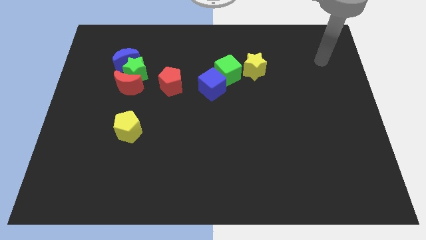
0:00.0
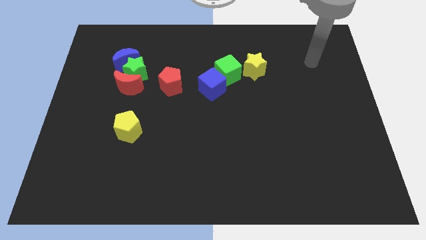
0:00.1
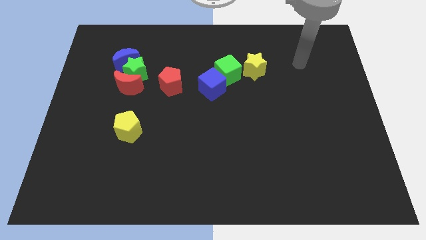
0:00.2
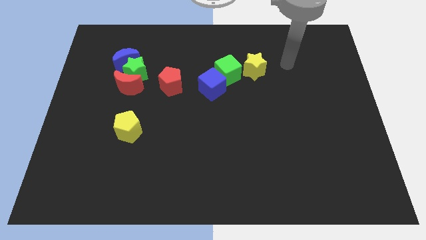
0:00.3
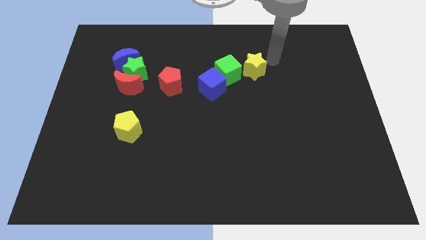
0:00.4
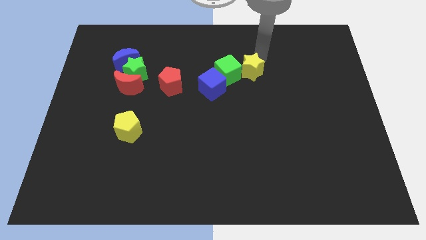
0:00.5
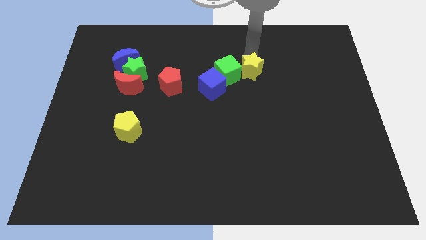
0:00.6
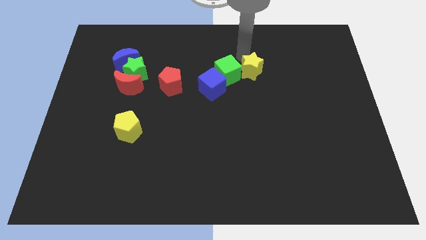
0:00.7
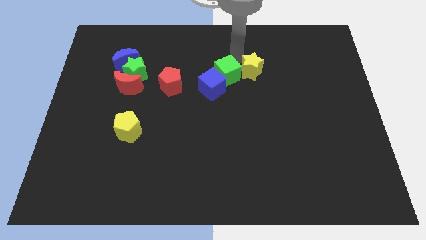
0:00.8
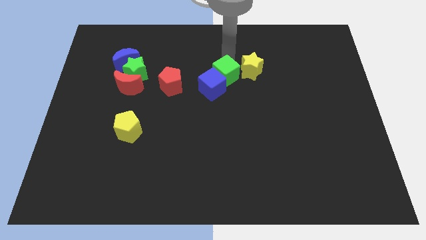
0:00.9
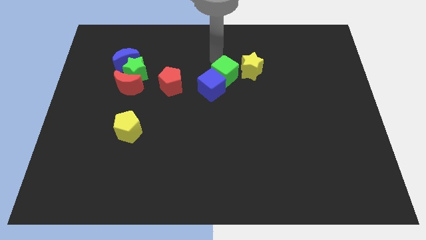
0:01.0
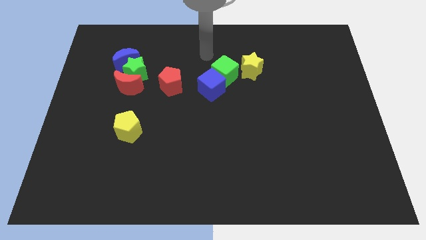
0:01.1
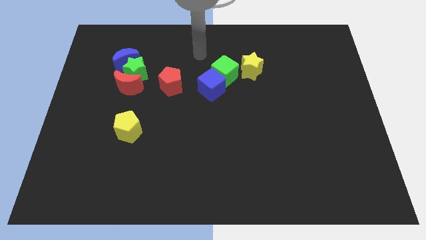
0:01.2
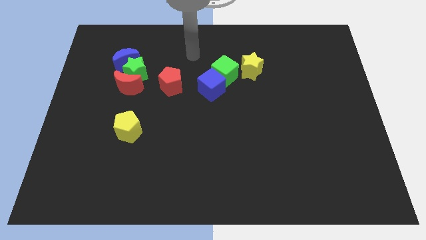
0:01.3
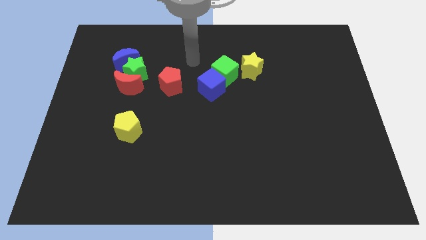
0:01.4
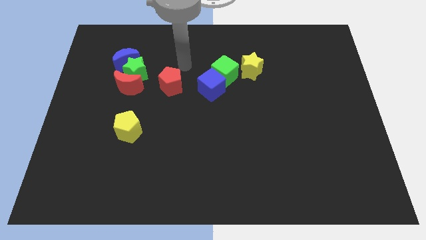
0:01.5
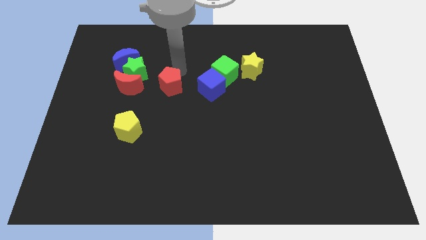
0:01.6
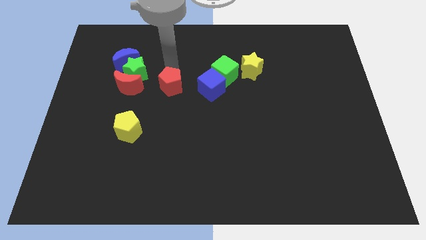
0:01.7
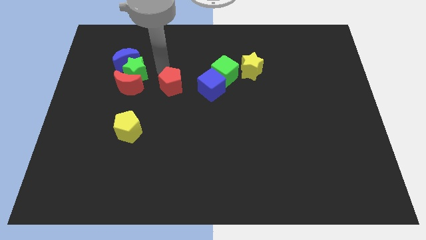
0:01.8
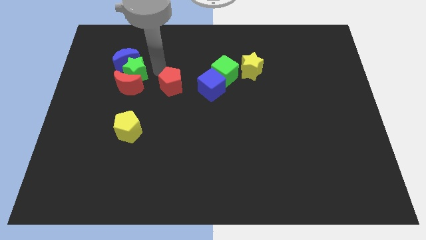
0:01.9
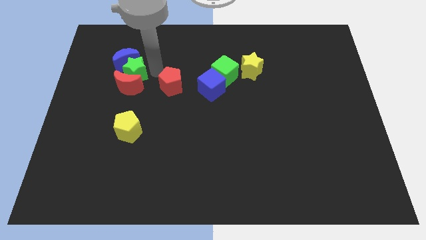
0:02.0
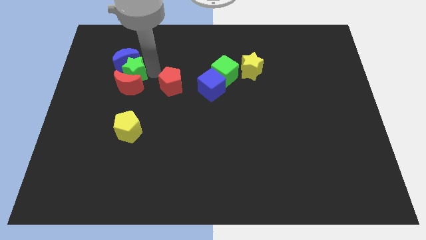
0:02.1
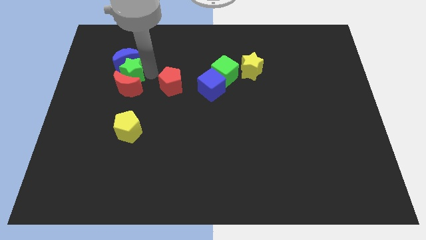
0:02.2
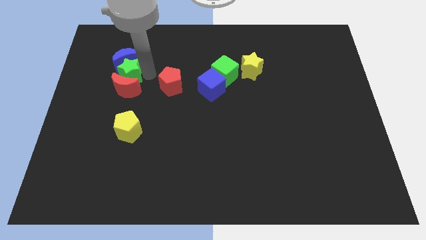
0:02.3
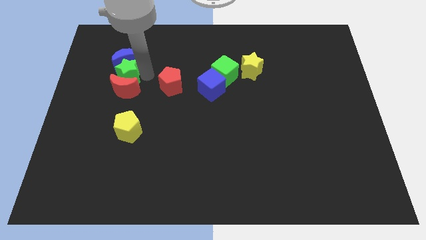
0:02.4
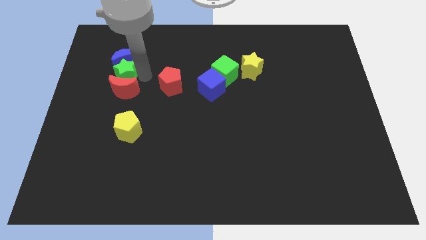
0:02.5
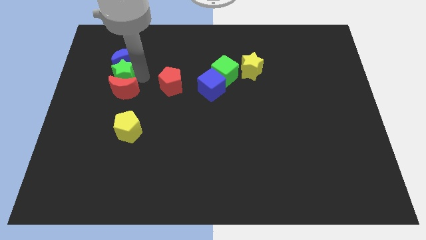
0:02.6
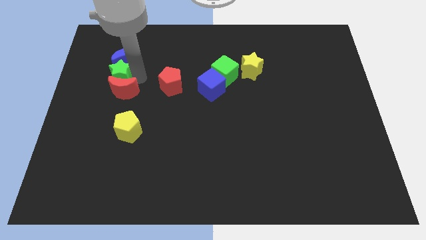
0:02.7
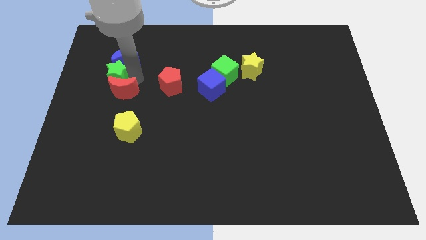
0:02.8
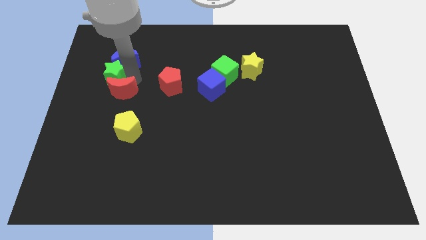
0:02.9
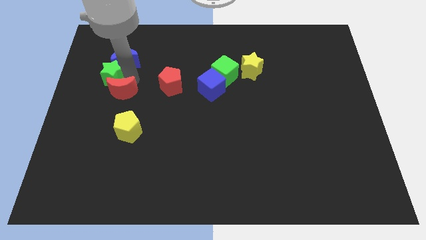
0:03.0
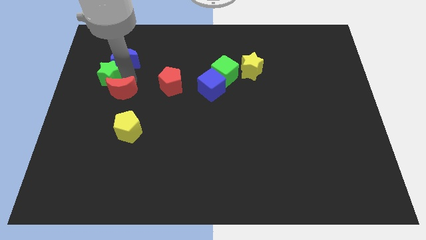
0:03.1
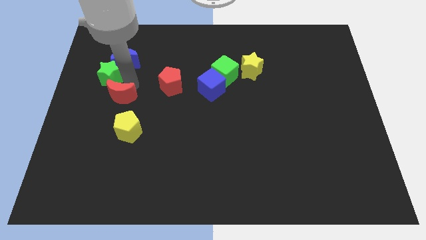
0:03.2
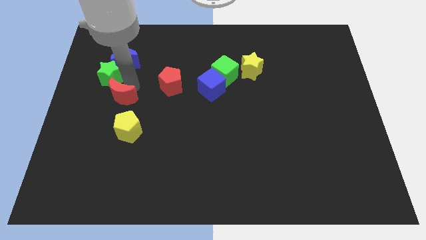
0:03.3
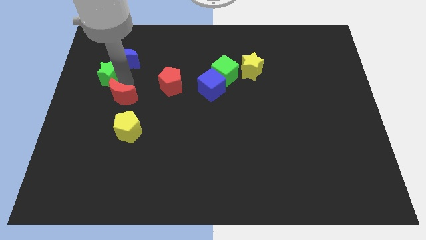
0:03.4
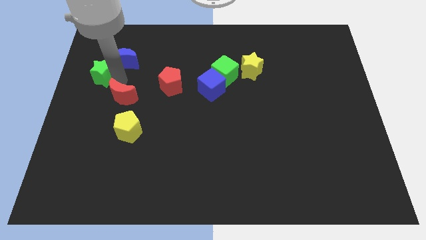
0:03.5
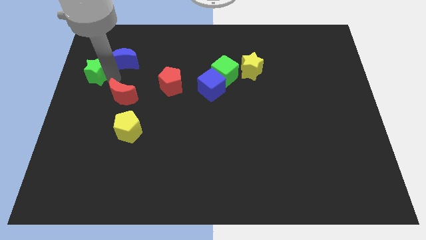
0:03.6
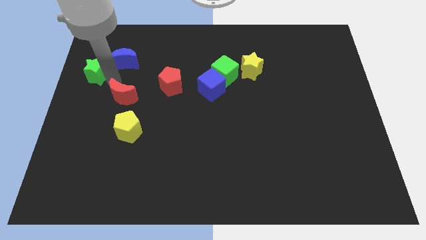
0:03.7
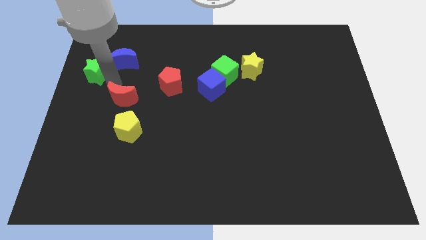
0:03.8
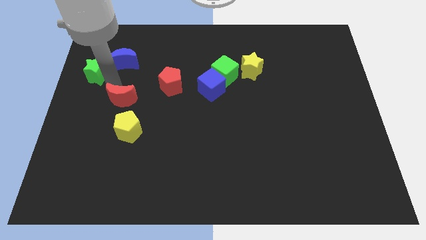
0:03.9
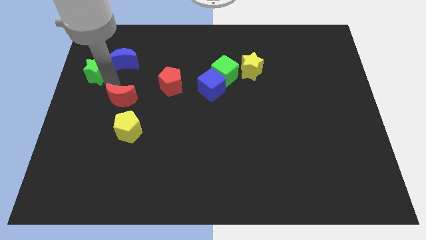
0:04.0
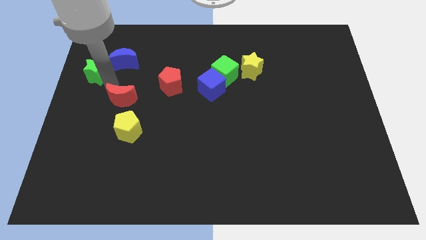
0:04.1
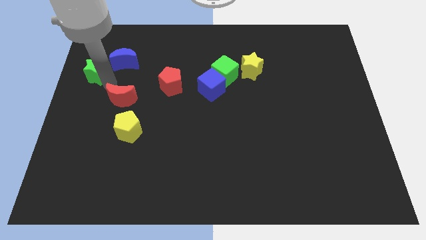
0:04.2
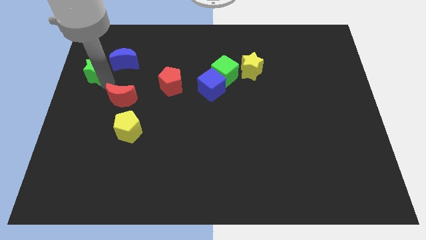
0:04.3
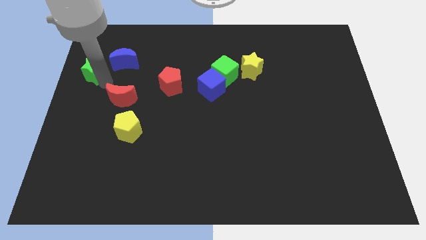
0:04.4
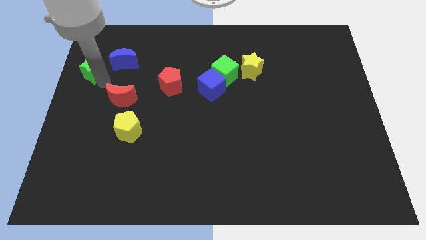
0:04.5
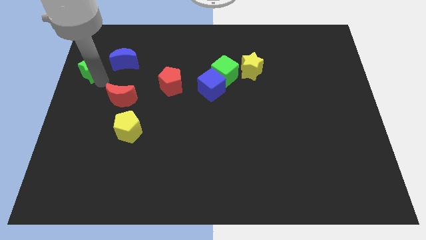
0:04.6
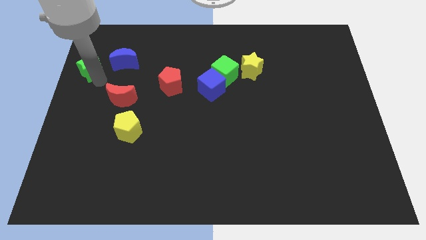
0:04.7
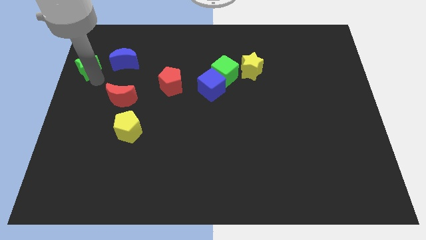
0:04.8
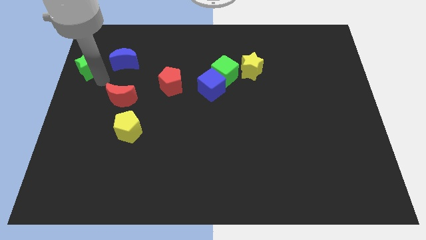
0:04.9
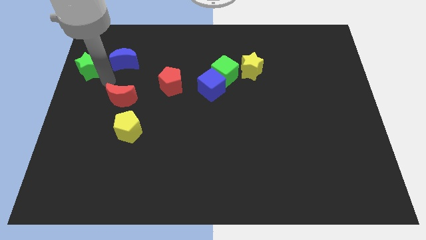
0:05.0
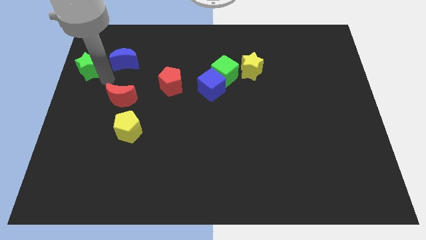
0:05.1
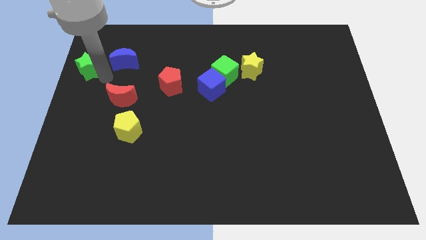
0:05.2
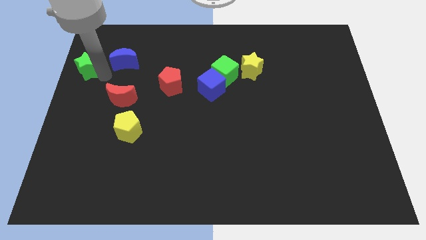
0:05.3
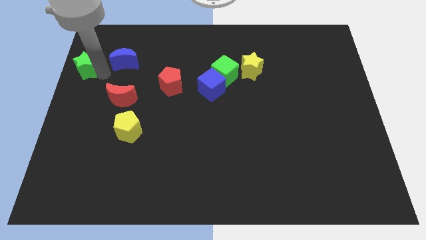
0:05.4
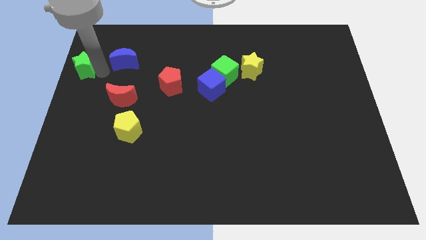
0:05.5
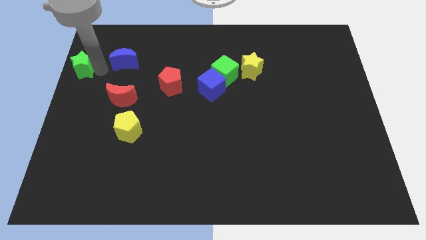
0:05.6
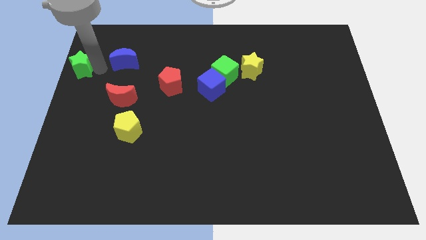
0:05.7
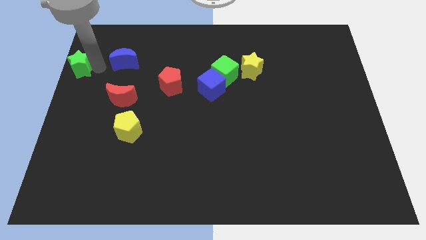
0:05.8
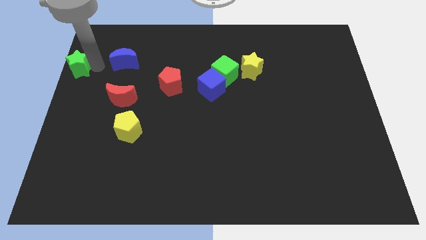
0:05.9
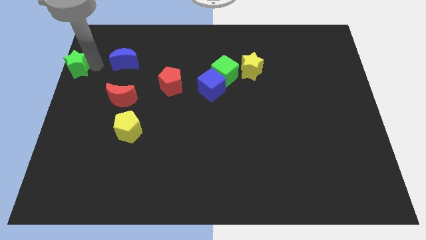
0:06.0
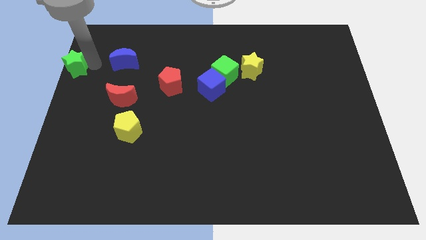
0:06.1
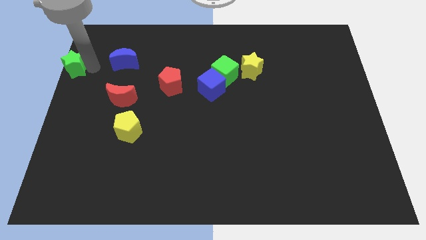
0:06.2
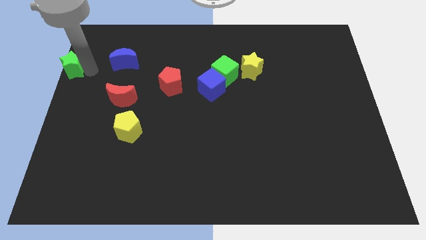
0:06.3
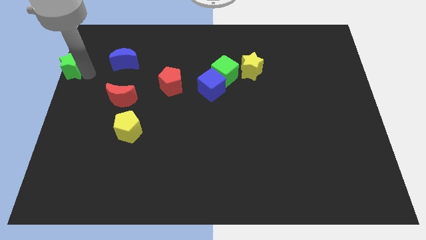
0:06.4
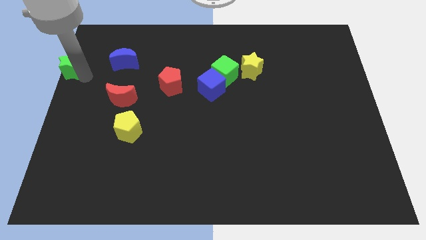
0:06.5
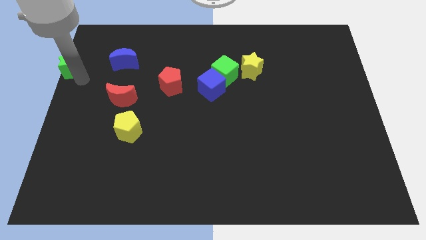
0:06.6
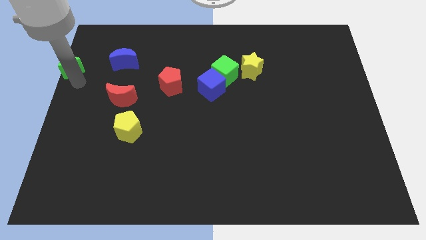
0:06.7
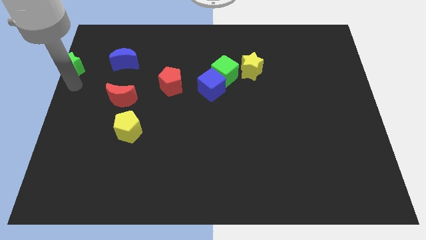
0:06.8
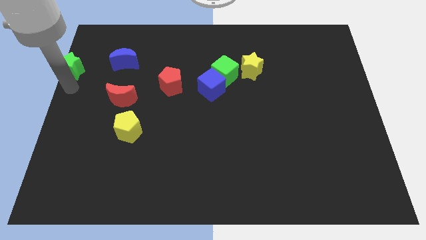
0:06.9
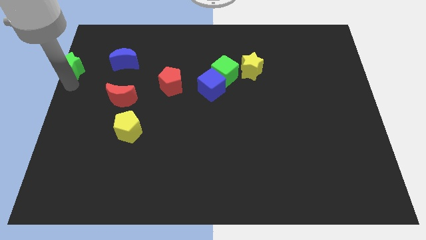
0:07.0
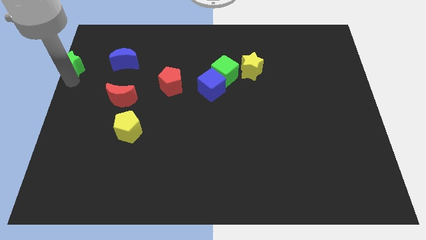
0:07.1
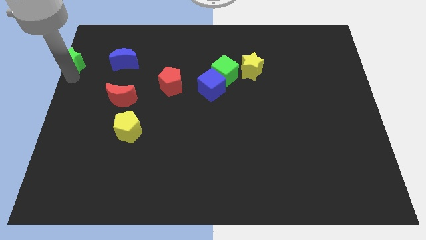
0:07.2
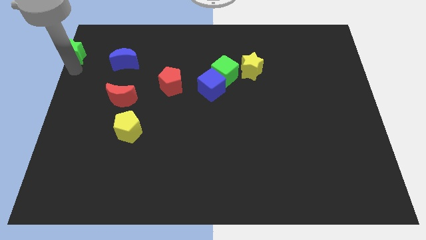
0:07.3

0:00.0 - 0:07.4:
push the green star to the top left
